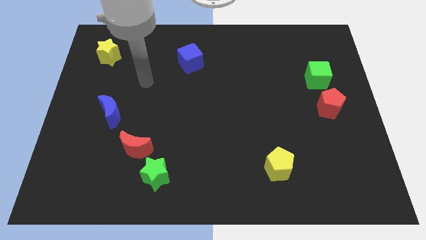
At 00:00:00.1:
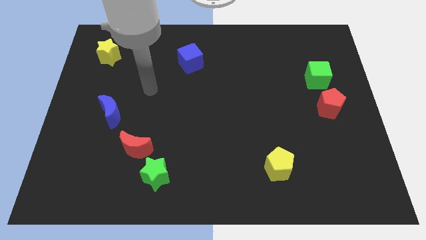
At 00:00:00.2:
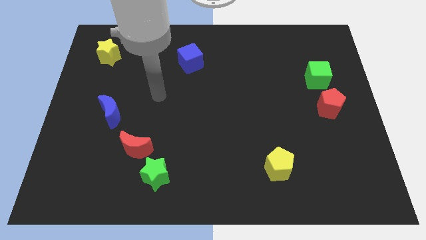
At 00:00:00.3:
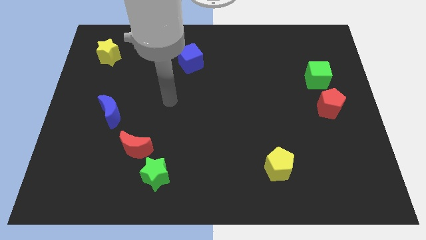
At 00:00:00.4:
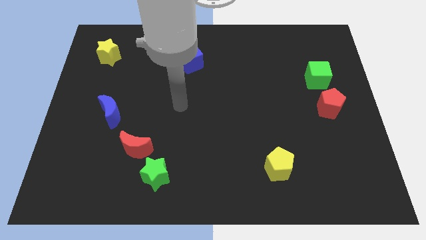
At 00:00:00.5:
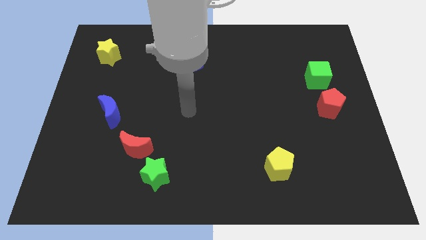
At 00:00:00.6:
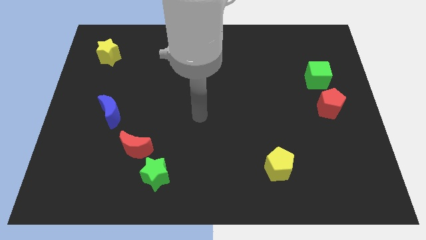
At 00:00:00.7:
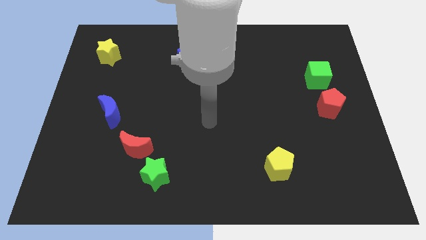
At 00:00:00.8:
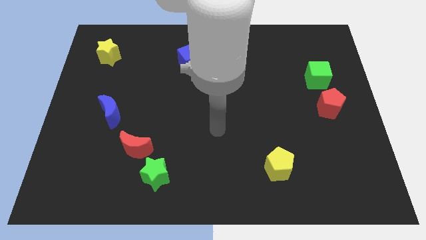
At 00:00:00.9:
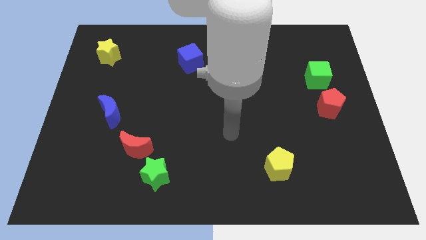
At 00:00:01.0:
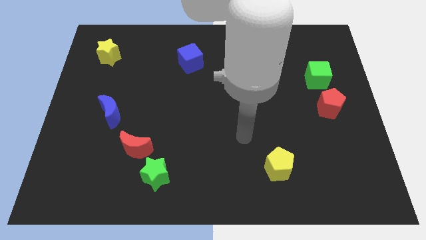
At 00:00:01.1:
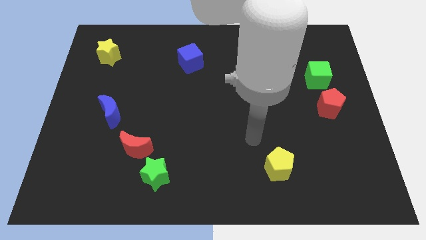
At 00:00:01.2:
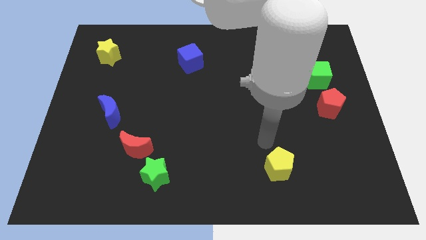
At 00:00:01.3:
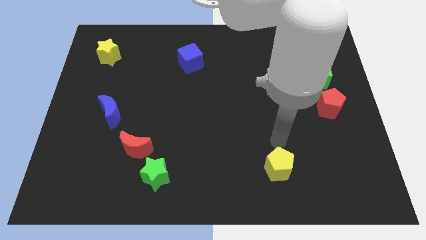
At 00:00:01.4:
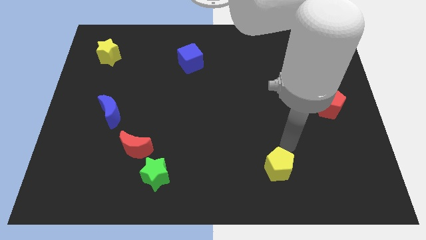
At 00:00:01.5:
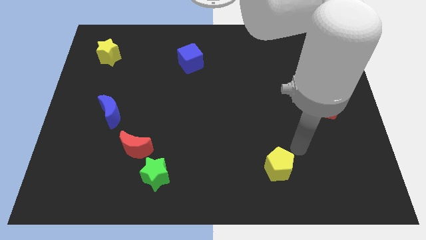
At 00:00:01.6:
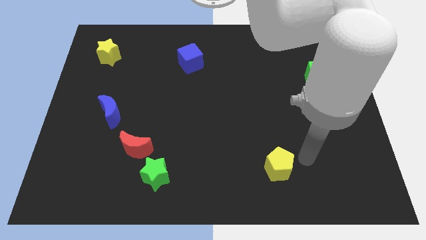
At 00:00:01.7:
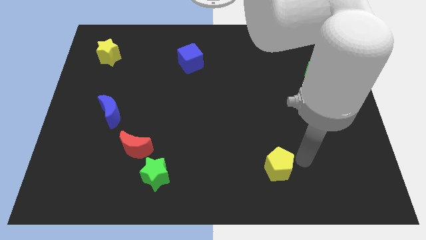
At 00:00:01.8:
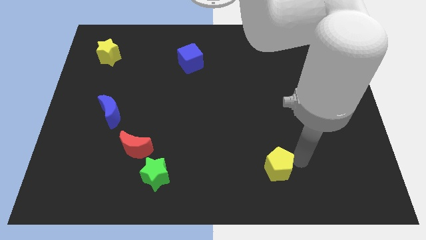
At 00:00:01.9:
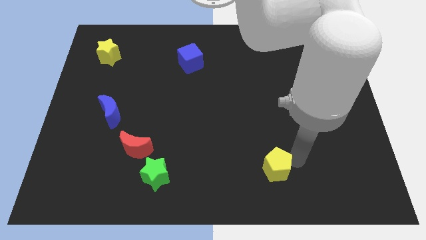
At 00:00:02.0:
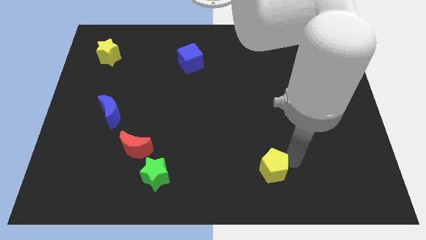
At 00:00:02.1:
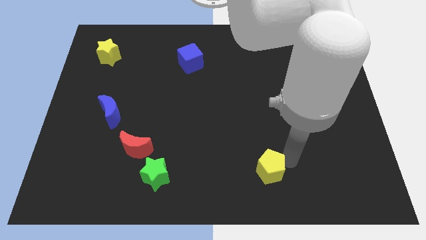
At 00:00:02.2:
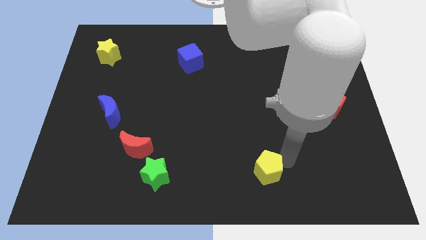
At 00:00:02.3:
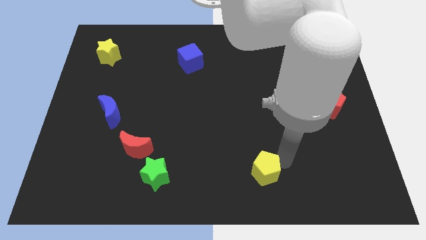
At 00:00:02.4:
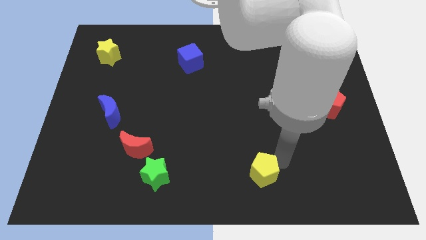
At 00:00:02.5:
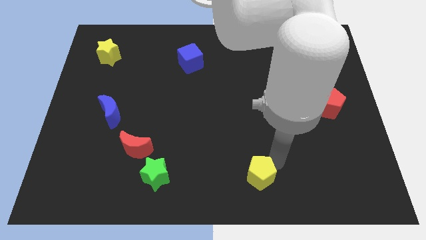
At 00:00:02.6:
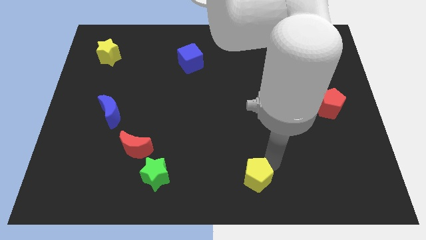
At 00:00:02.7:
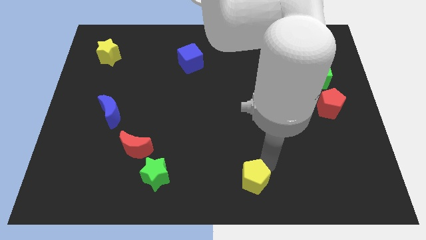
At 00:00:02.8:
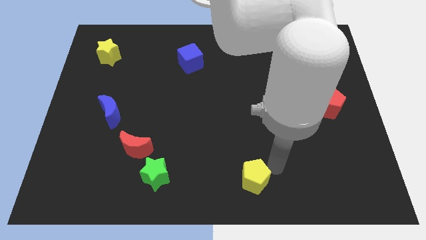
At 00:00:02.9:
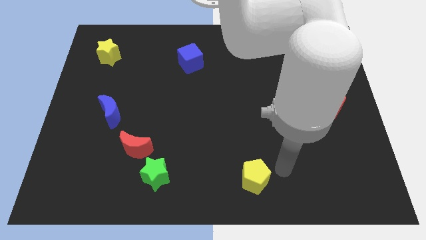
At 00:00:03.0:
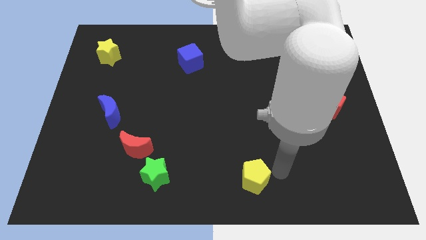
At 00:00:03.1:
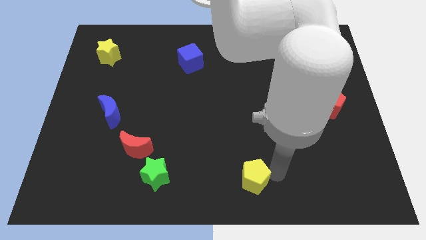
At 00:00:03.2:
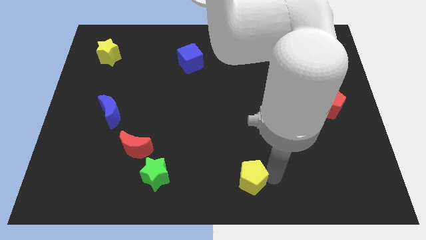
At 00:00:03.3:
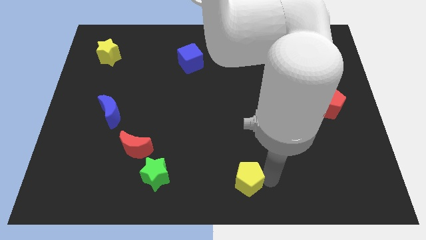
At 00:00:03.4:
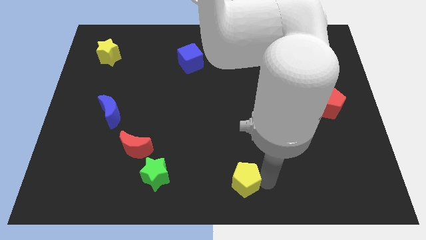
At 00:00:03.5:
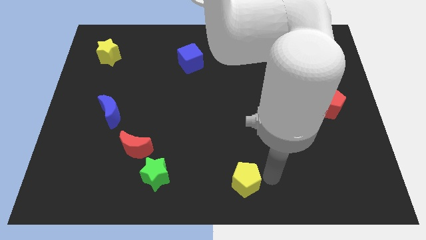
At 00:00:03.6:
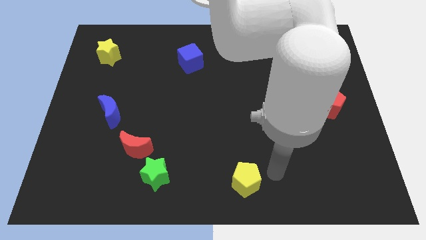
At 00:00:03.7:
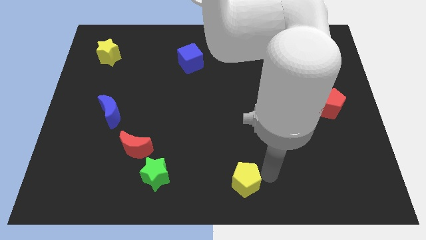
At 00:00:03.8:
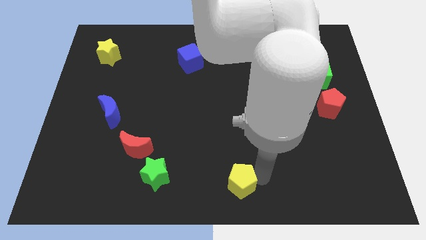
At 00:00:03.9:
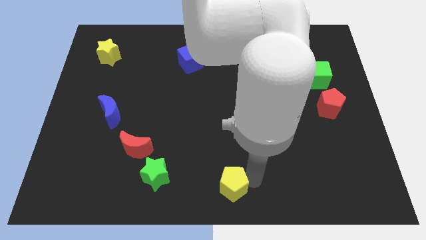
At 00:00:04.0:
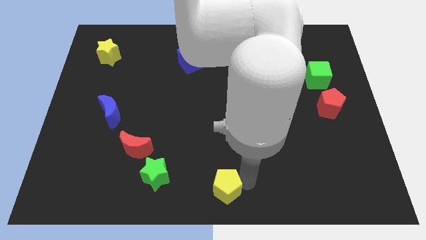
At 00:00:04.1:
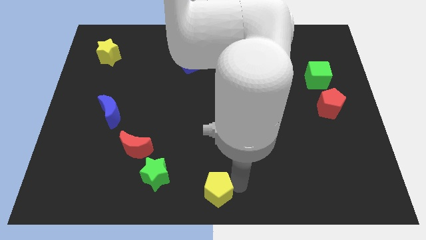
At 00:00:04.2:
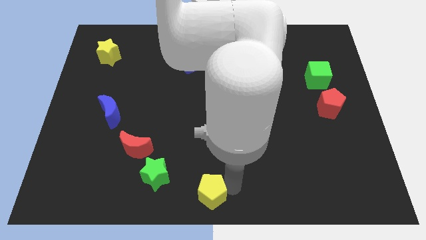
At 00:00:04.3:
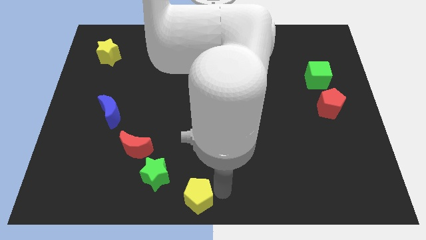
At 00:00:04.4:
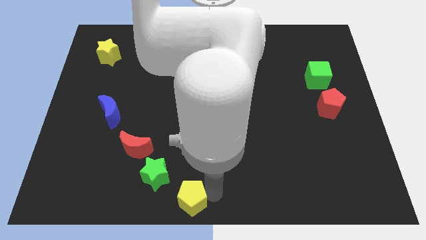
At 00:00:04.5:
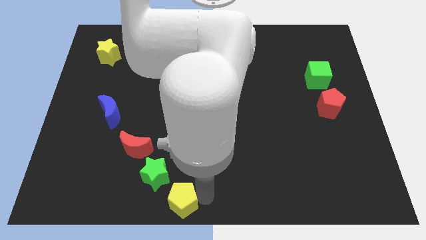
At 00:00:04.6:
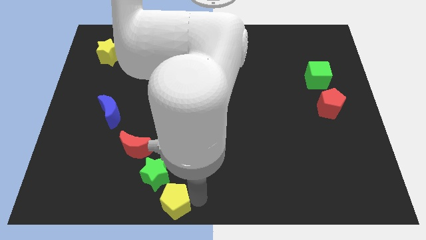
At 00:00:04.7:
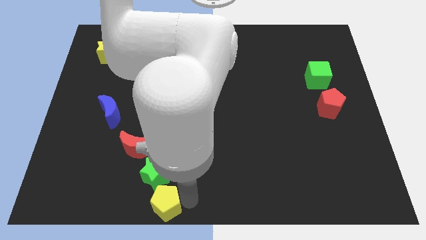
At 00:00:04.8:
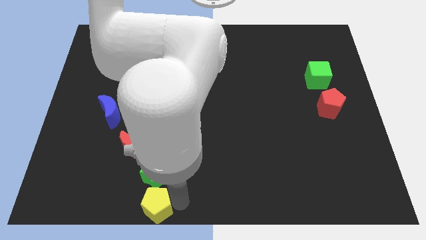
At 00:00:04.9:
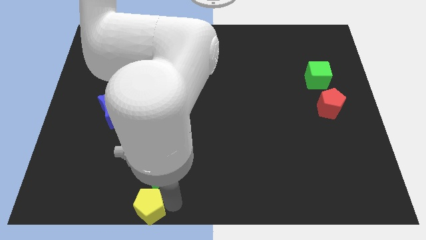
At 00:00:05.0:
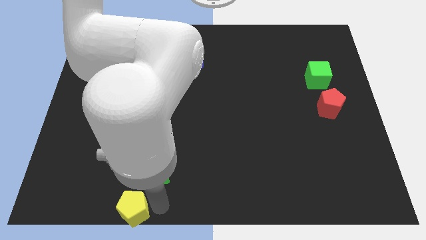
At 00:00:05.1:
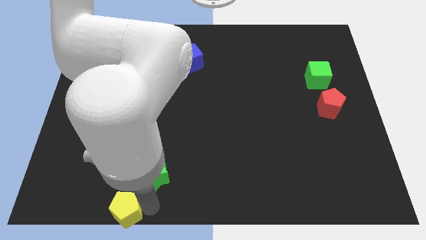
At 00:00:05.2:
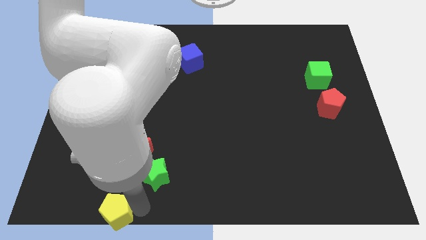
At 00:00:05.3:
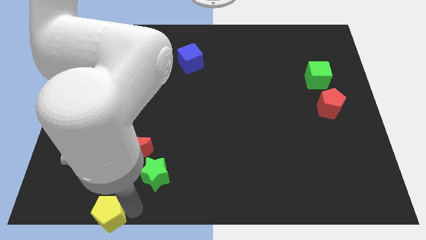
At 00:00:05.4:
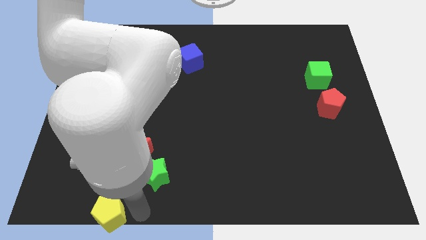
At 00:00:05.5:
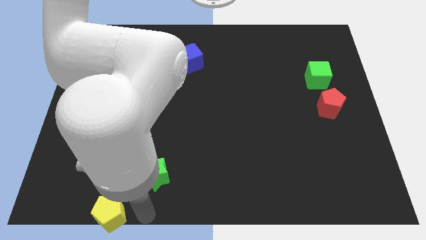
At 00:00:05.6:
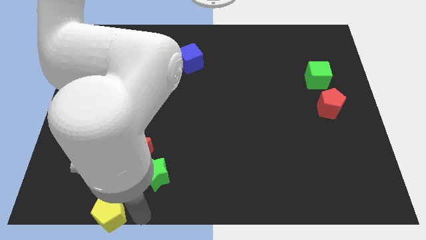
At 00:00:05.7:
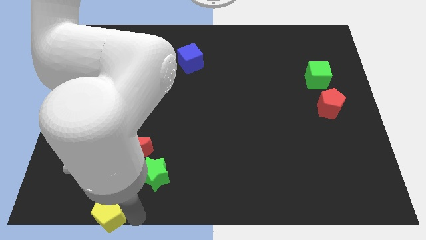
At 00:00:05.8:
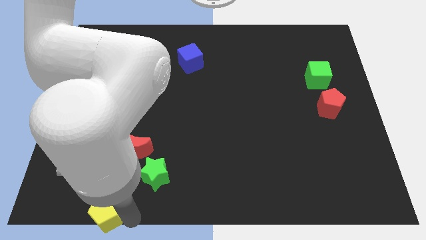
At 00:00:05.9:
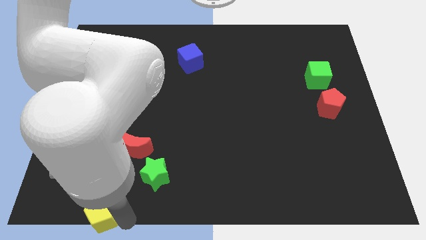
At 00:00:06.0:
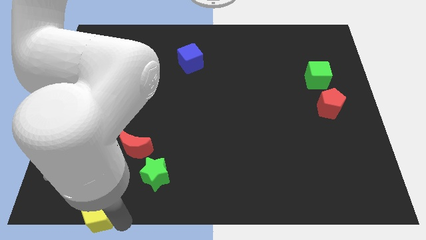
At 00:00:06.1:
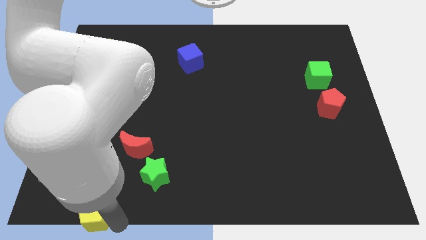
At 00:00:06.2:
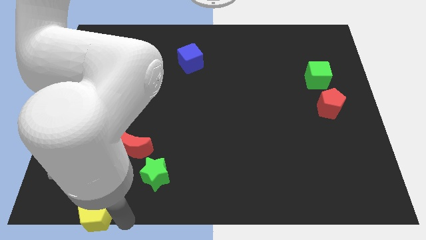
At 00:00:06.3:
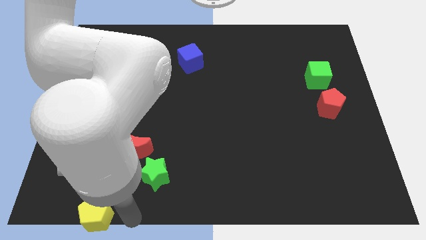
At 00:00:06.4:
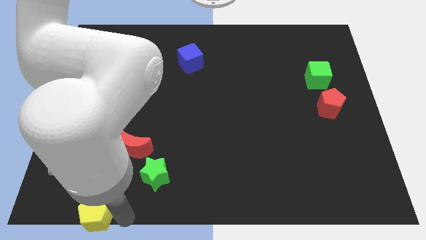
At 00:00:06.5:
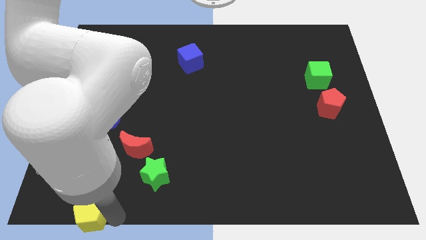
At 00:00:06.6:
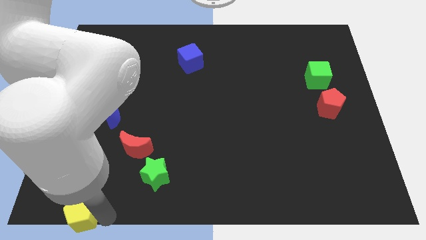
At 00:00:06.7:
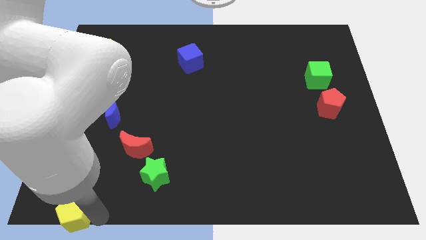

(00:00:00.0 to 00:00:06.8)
put the yellow pentagon to the bottom left corner
